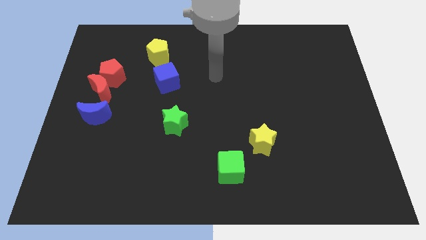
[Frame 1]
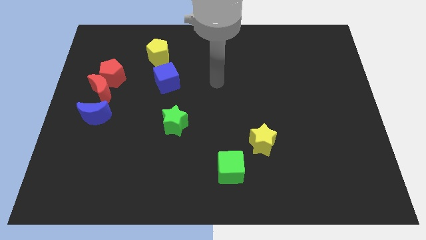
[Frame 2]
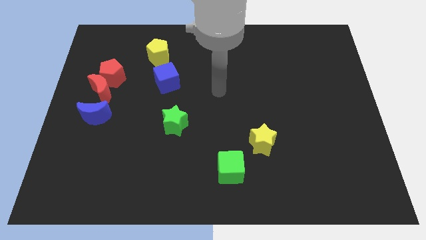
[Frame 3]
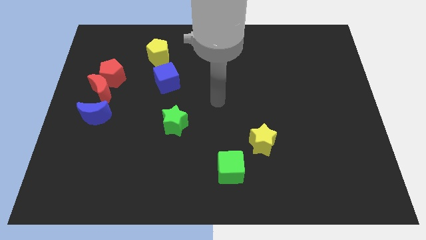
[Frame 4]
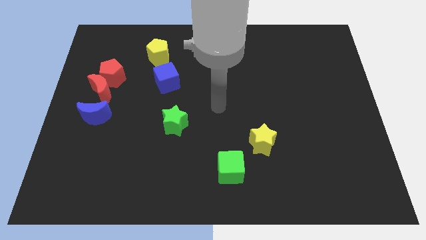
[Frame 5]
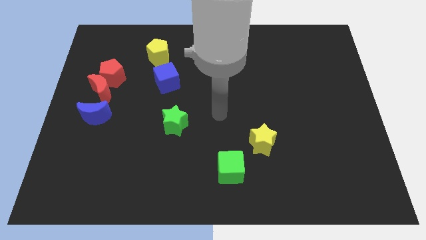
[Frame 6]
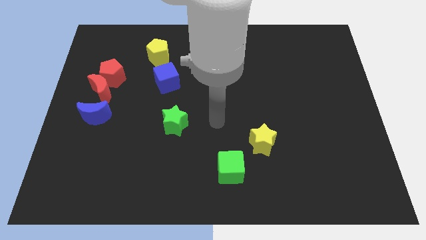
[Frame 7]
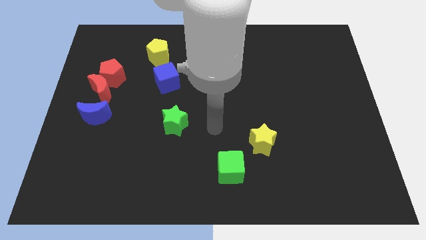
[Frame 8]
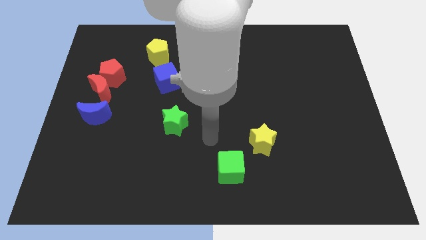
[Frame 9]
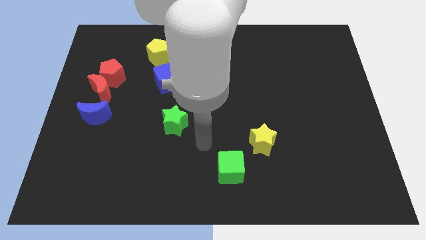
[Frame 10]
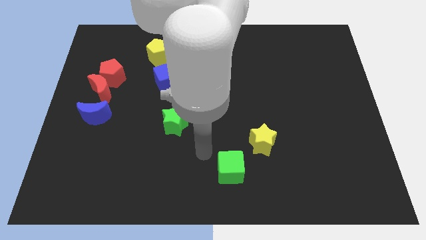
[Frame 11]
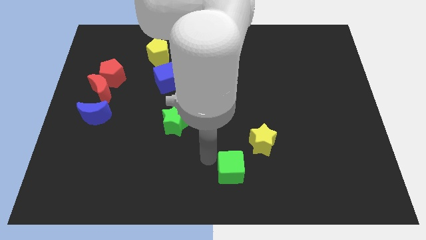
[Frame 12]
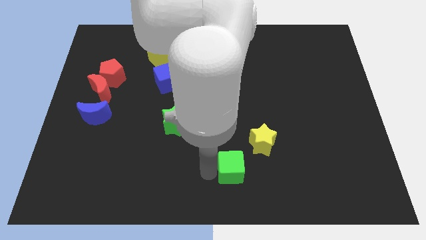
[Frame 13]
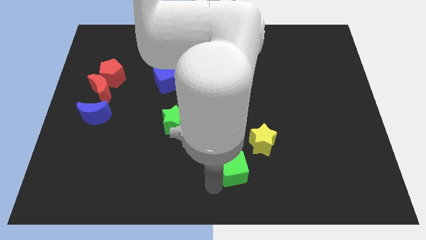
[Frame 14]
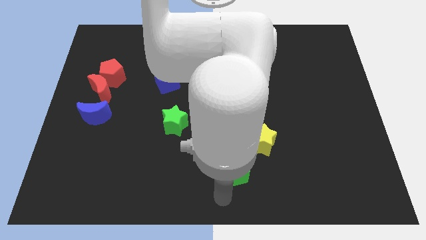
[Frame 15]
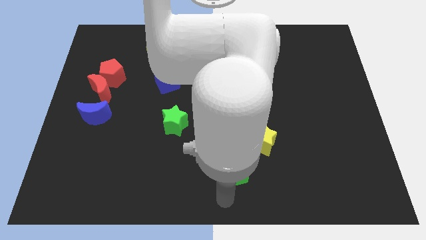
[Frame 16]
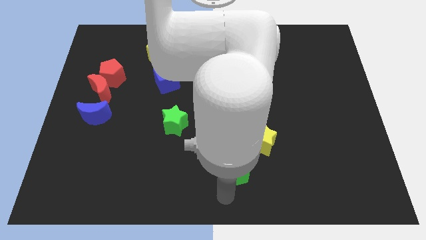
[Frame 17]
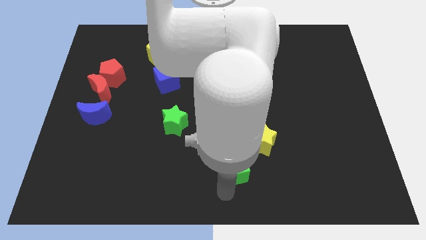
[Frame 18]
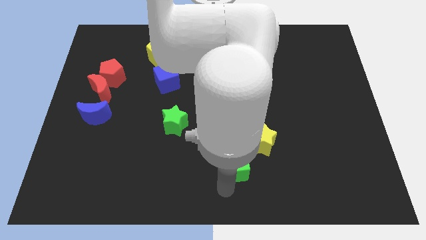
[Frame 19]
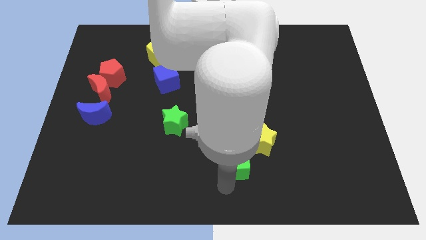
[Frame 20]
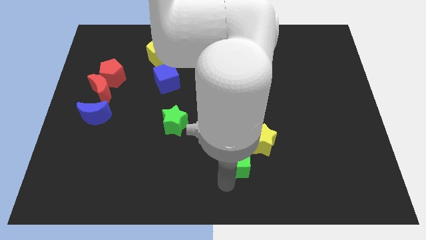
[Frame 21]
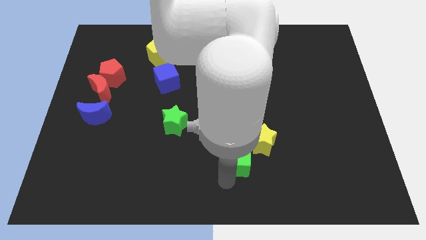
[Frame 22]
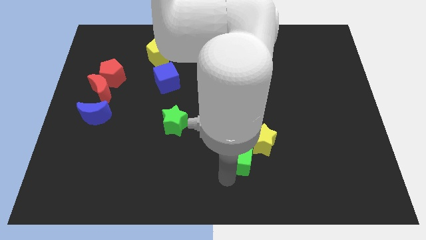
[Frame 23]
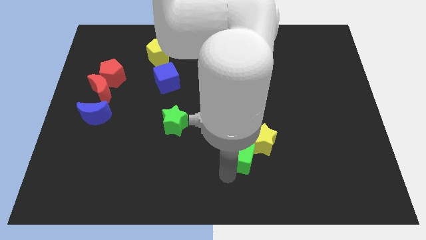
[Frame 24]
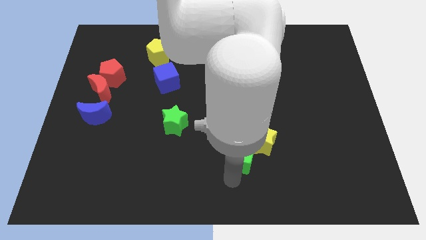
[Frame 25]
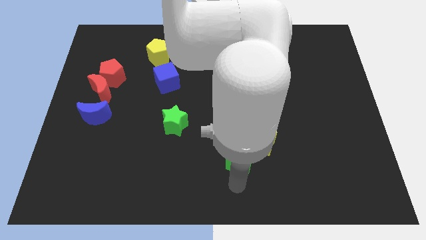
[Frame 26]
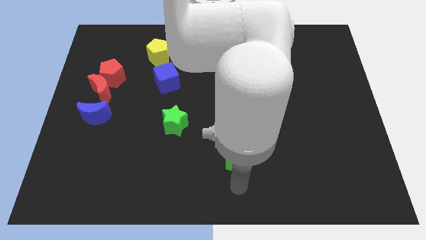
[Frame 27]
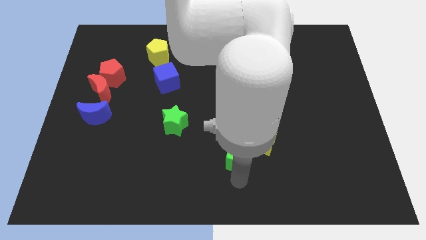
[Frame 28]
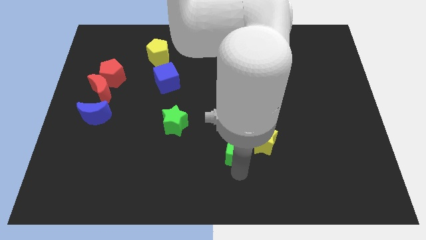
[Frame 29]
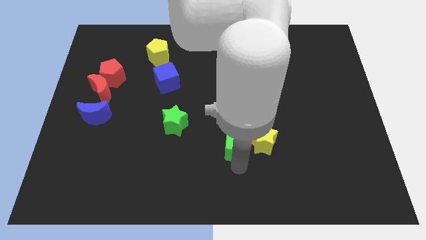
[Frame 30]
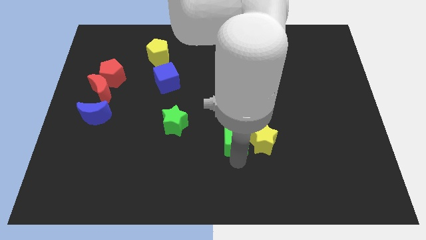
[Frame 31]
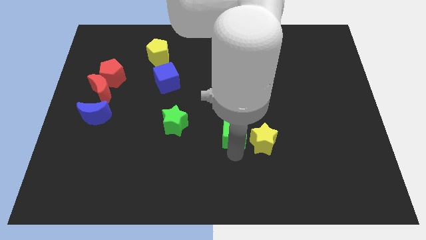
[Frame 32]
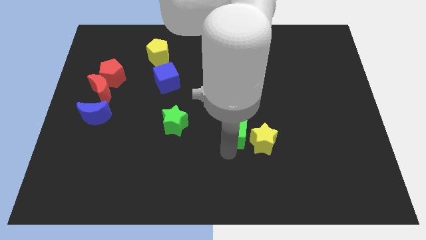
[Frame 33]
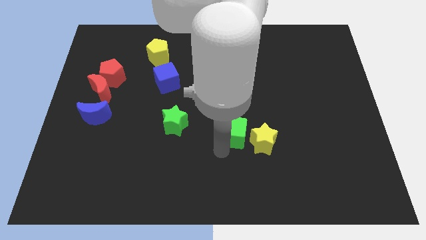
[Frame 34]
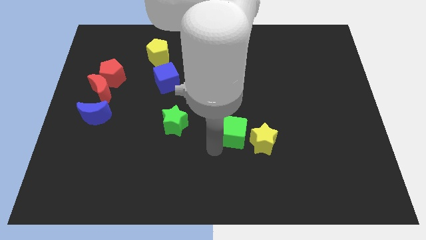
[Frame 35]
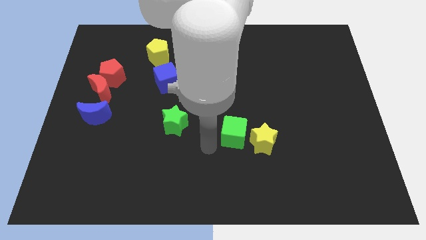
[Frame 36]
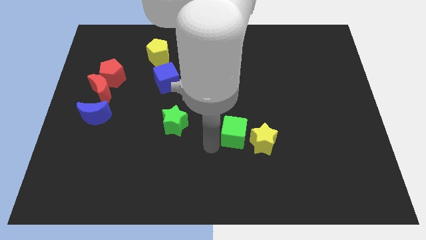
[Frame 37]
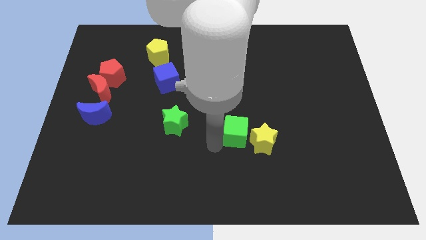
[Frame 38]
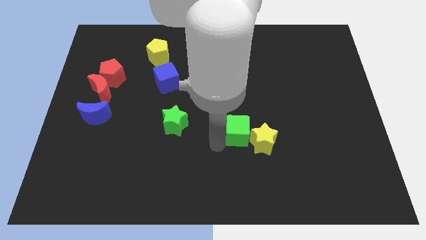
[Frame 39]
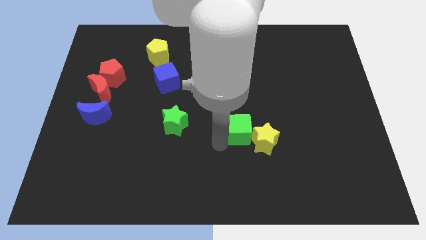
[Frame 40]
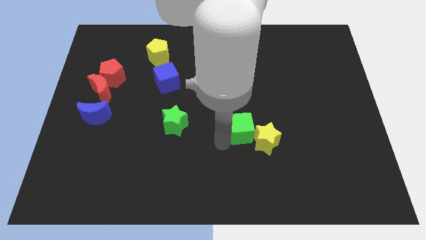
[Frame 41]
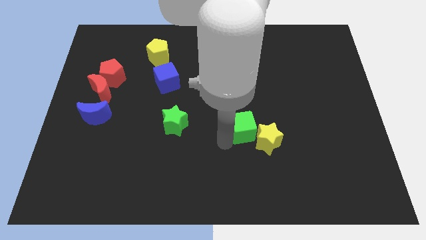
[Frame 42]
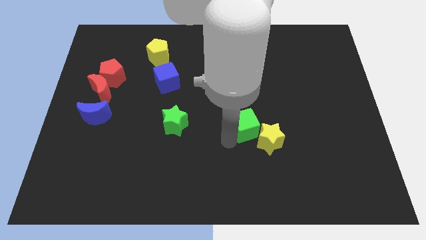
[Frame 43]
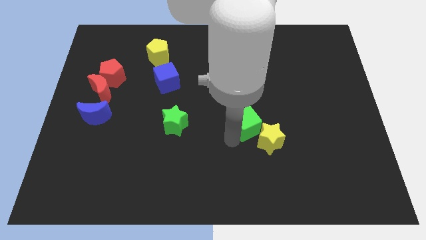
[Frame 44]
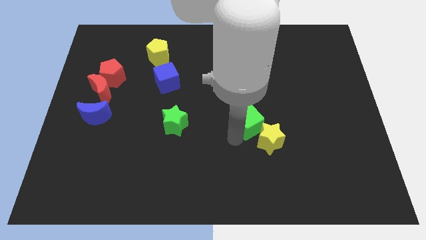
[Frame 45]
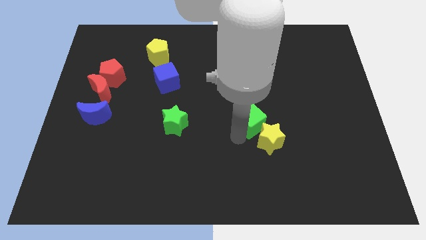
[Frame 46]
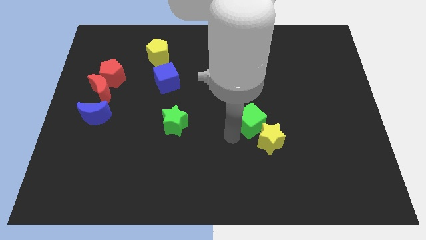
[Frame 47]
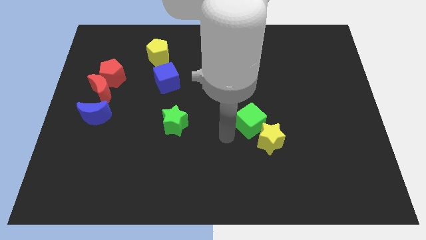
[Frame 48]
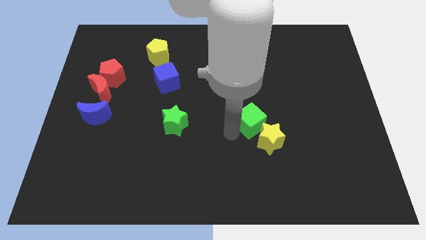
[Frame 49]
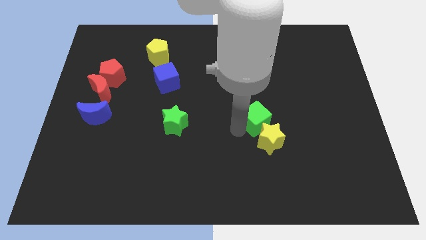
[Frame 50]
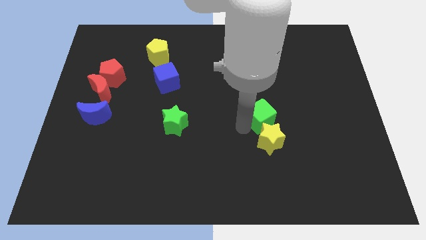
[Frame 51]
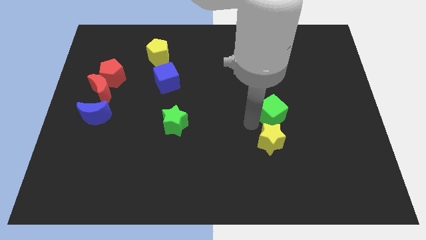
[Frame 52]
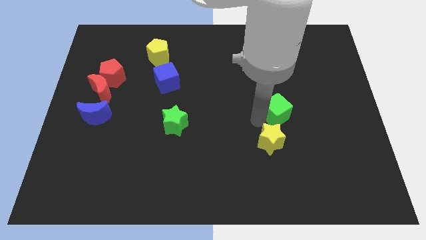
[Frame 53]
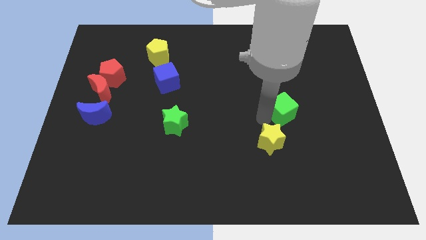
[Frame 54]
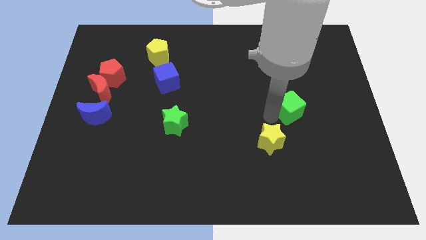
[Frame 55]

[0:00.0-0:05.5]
move the green cube up and then right

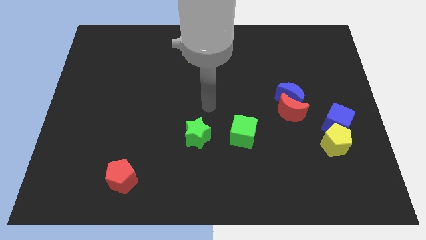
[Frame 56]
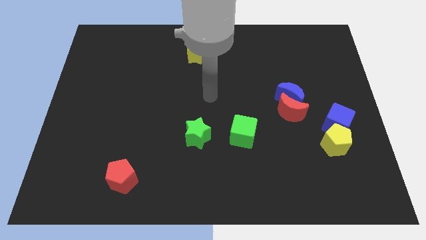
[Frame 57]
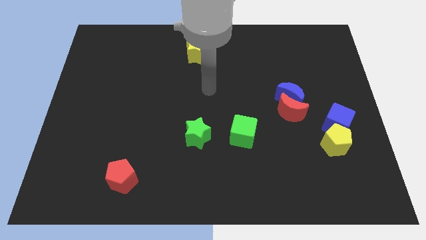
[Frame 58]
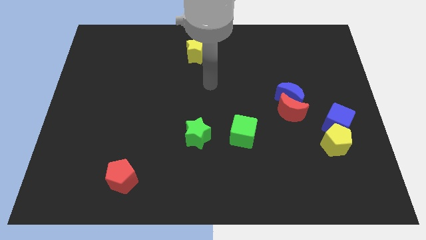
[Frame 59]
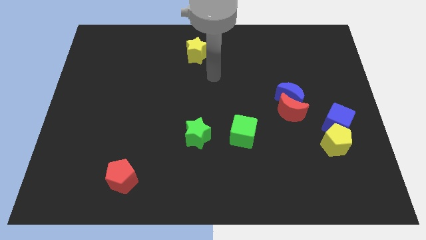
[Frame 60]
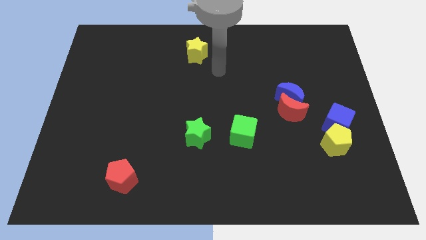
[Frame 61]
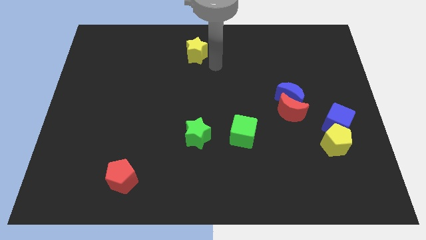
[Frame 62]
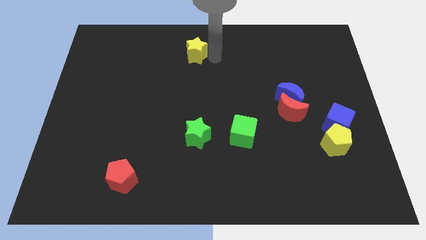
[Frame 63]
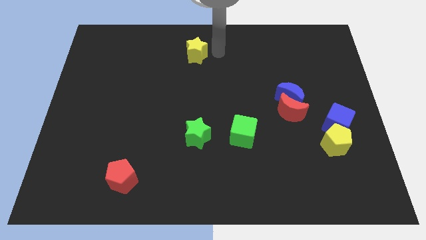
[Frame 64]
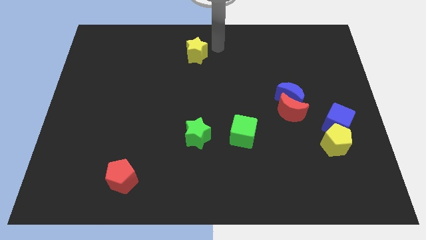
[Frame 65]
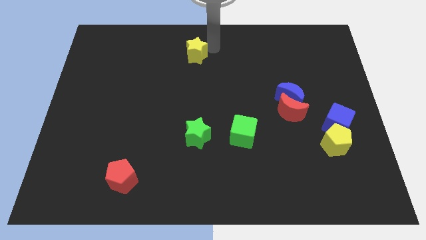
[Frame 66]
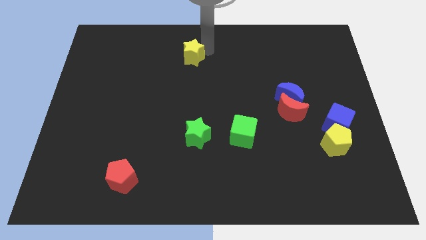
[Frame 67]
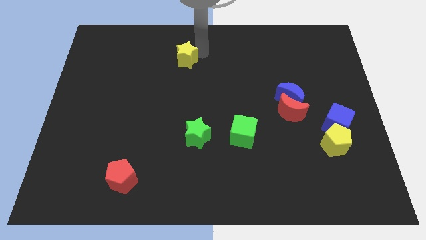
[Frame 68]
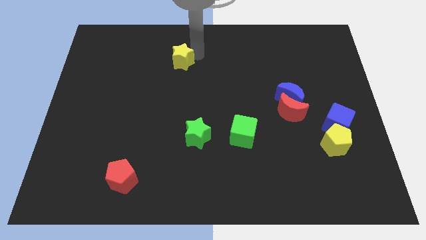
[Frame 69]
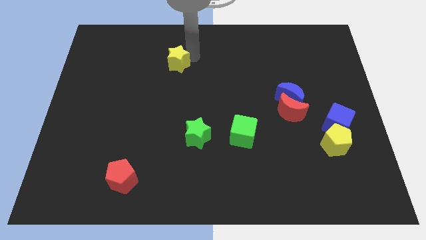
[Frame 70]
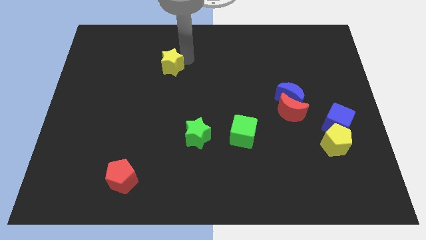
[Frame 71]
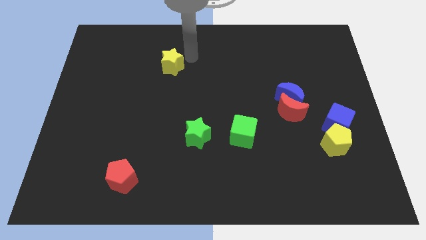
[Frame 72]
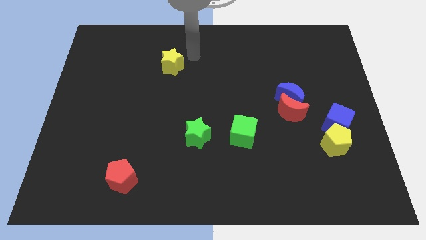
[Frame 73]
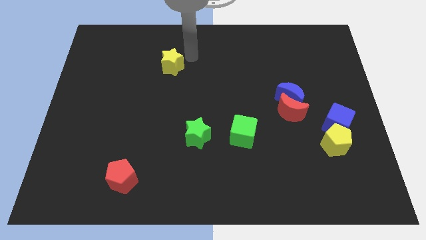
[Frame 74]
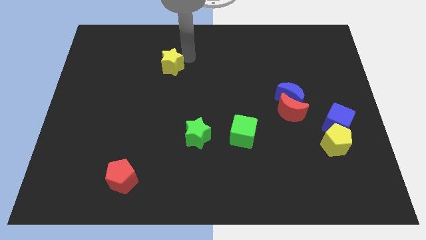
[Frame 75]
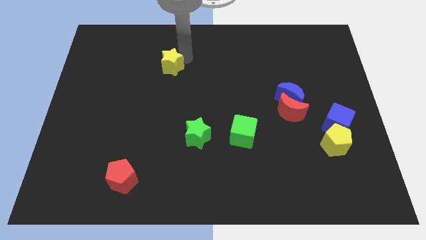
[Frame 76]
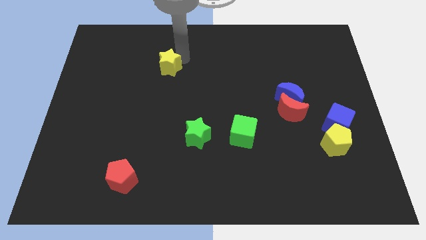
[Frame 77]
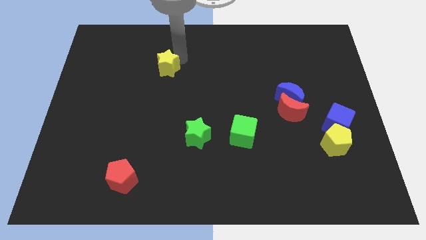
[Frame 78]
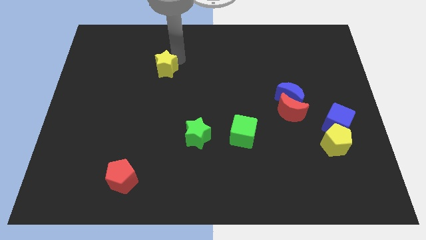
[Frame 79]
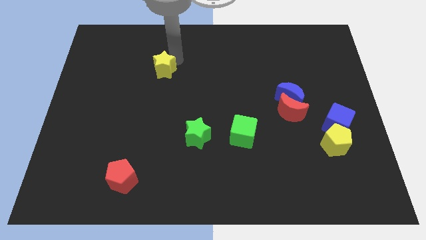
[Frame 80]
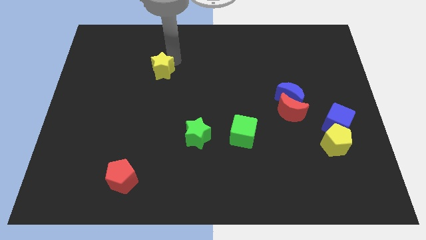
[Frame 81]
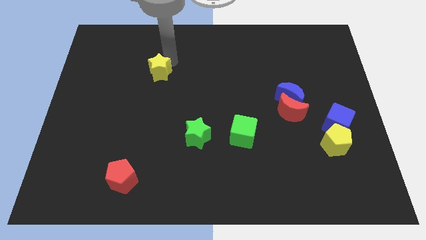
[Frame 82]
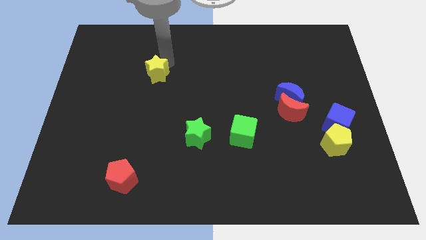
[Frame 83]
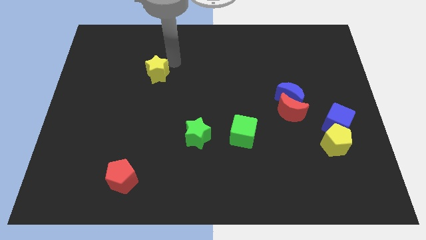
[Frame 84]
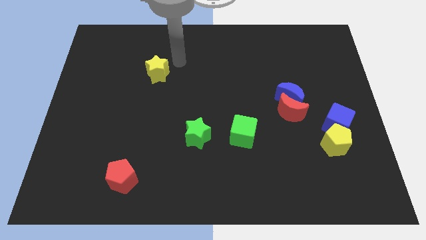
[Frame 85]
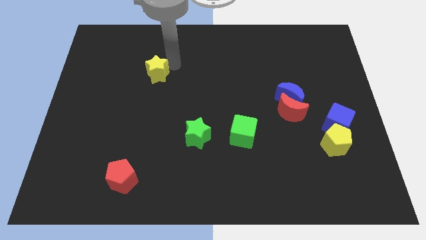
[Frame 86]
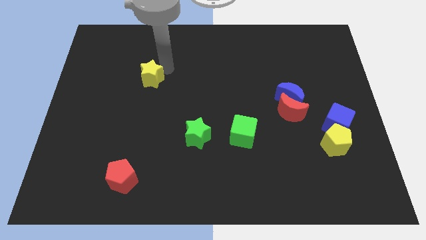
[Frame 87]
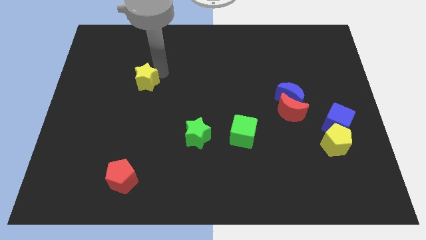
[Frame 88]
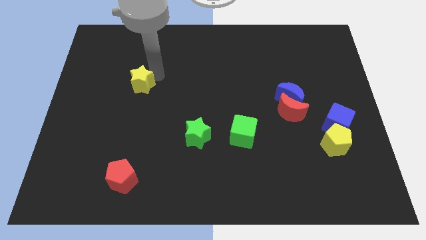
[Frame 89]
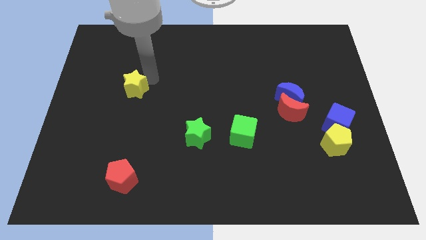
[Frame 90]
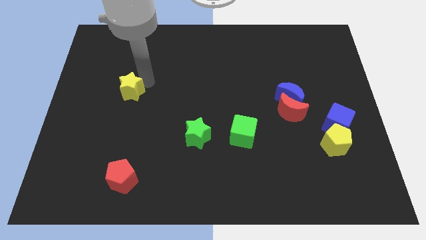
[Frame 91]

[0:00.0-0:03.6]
push the yellow star down and left diagonally
